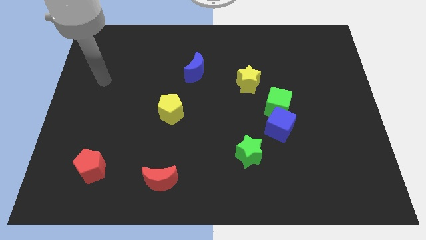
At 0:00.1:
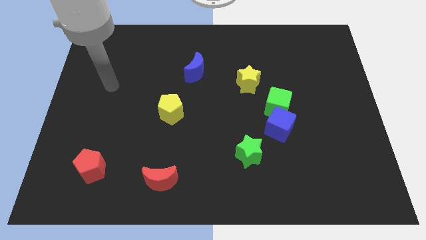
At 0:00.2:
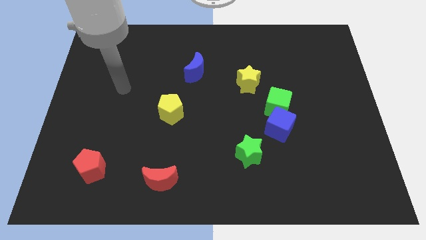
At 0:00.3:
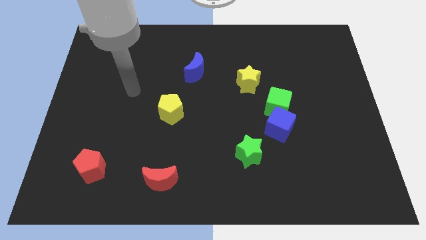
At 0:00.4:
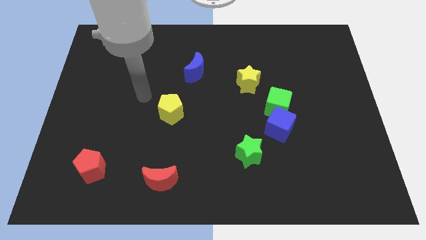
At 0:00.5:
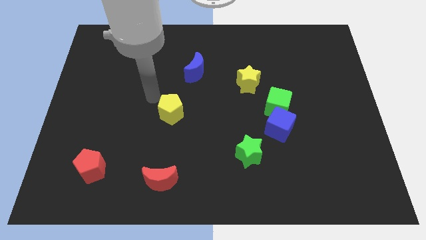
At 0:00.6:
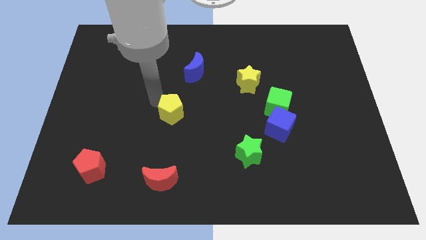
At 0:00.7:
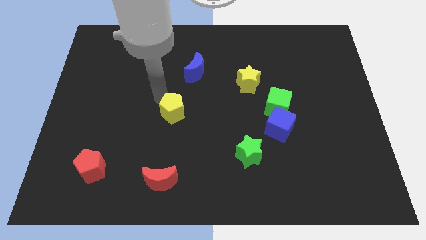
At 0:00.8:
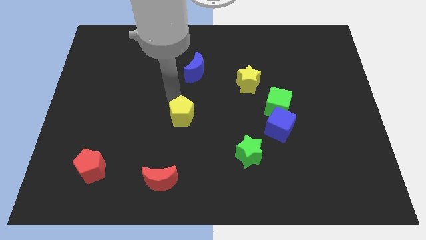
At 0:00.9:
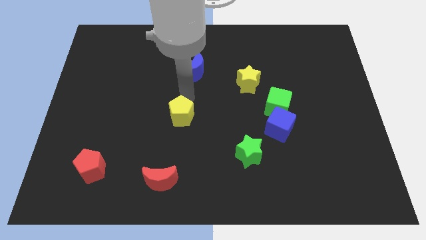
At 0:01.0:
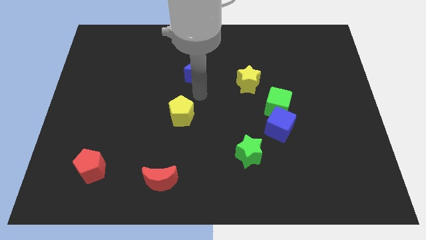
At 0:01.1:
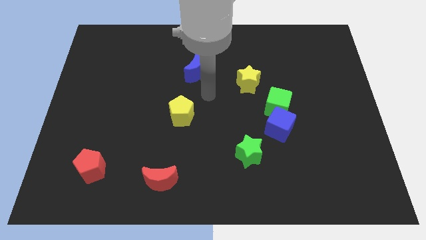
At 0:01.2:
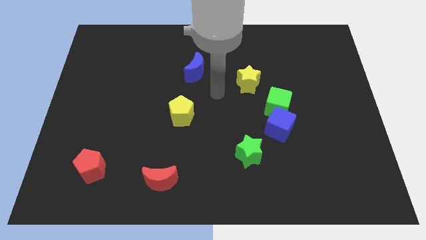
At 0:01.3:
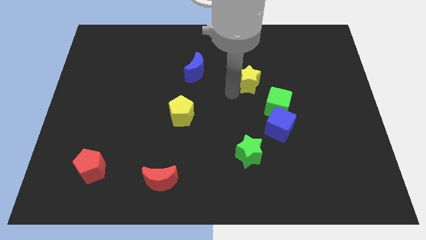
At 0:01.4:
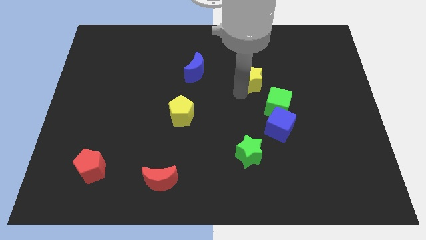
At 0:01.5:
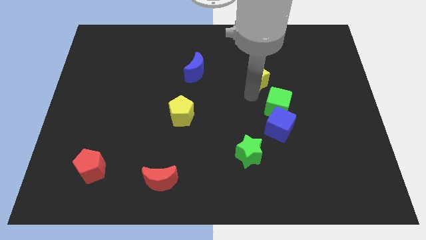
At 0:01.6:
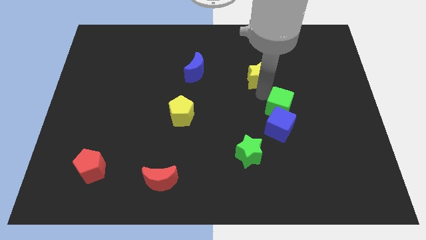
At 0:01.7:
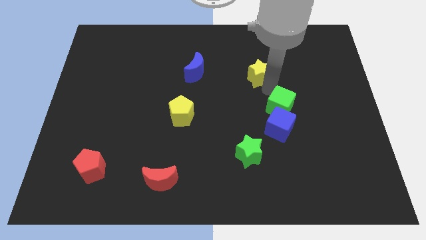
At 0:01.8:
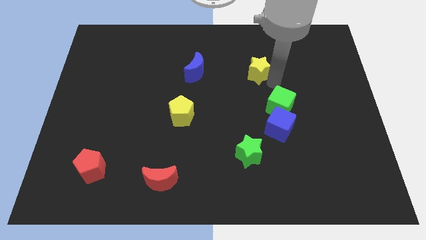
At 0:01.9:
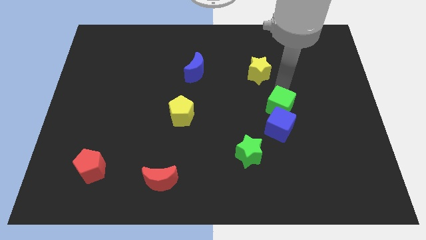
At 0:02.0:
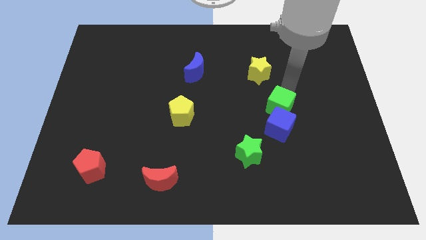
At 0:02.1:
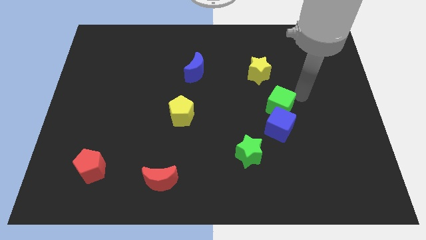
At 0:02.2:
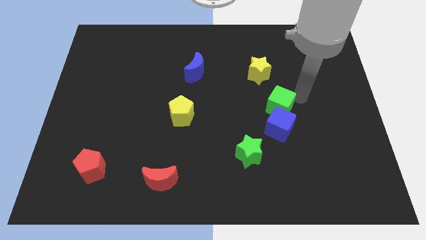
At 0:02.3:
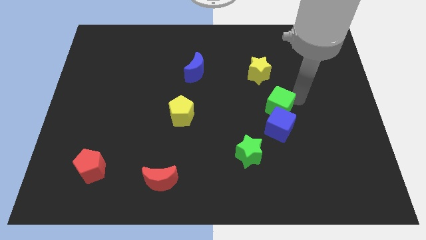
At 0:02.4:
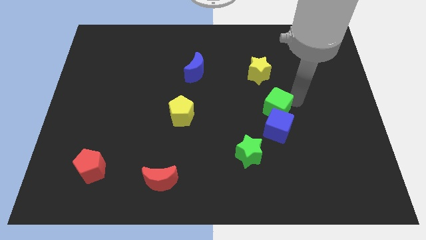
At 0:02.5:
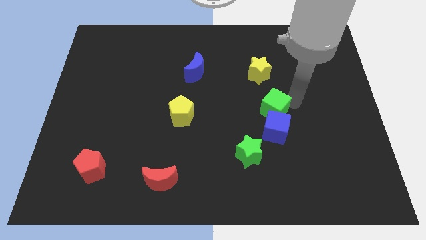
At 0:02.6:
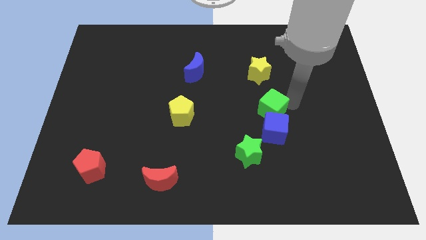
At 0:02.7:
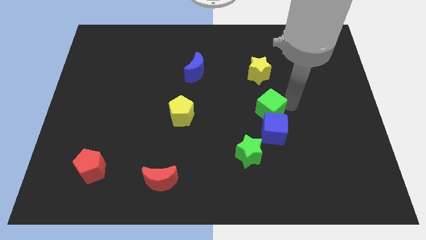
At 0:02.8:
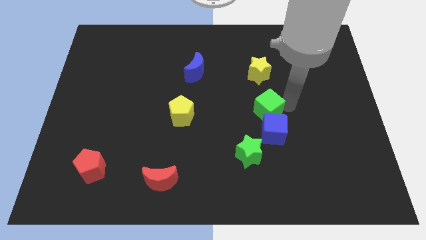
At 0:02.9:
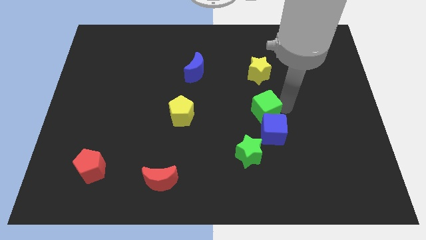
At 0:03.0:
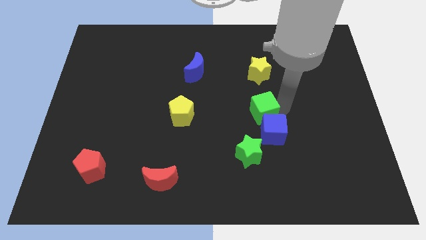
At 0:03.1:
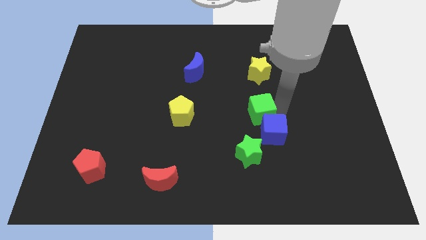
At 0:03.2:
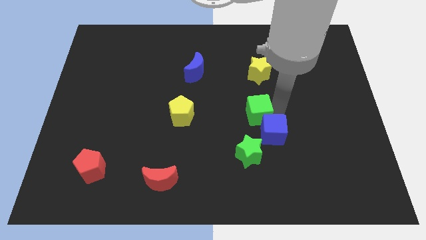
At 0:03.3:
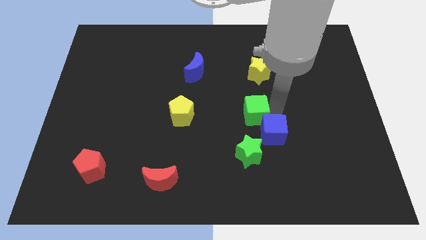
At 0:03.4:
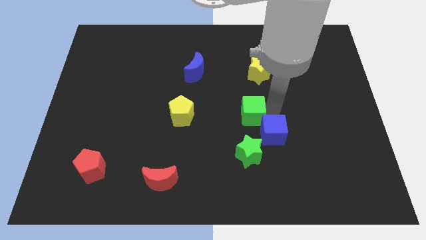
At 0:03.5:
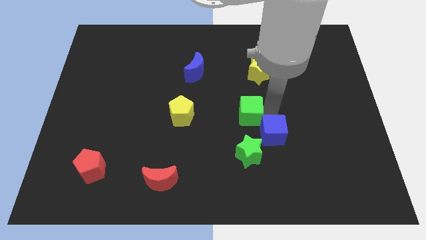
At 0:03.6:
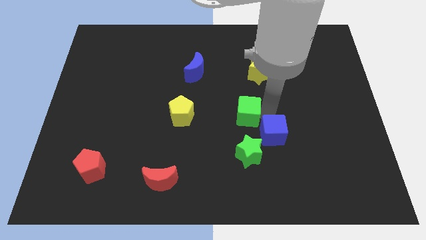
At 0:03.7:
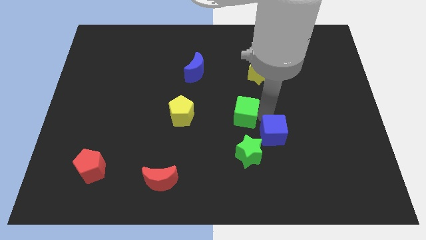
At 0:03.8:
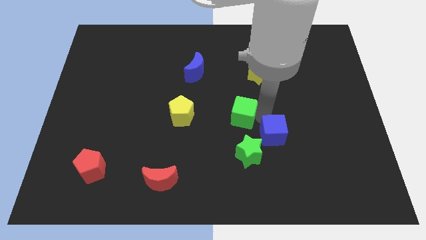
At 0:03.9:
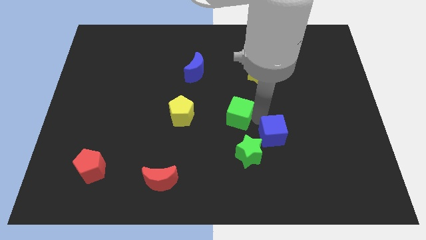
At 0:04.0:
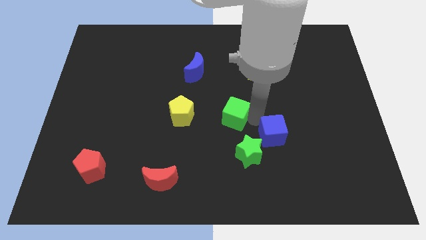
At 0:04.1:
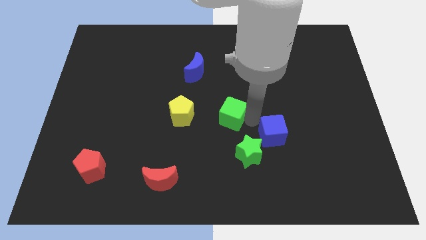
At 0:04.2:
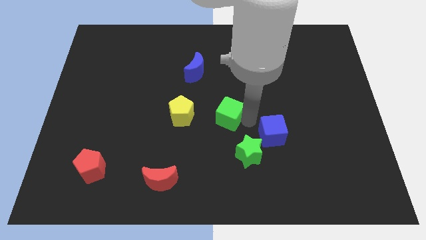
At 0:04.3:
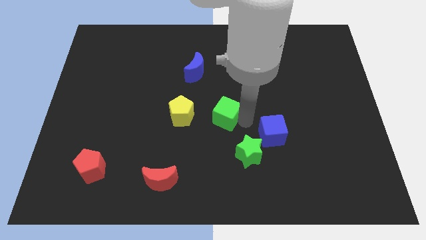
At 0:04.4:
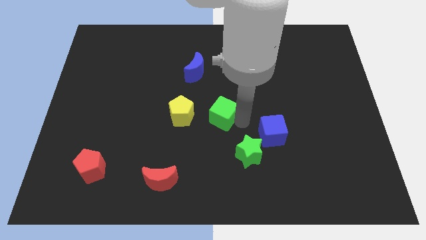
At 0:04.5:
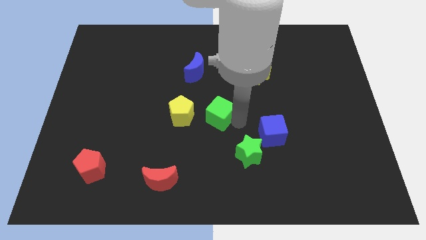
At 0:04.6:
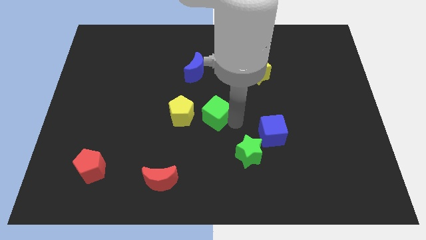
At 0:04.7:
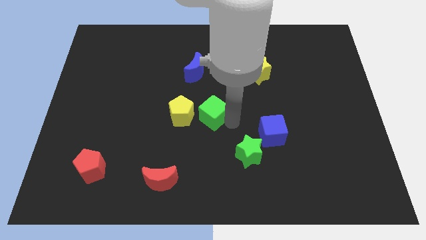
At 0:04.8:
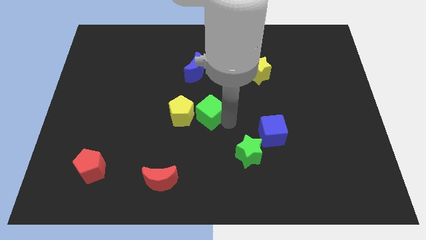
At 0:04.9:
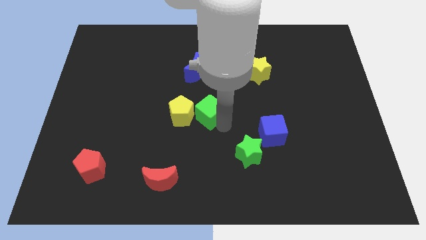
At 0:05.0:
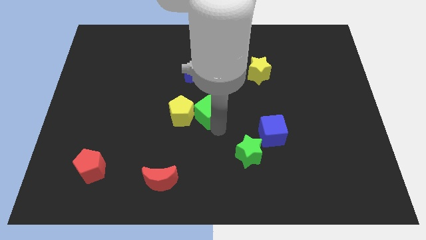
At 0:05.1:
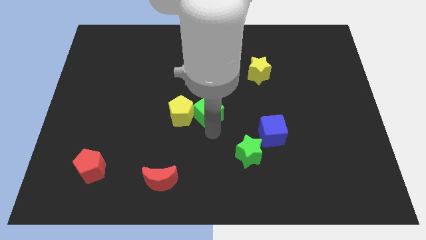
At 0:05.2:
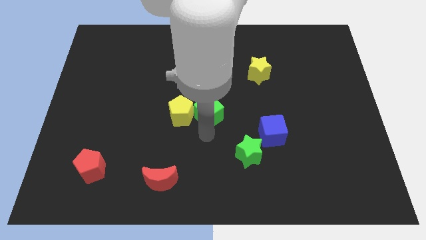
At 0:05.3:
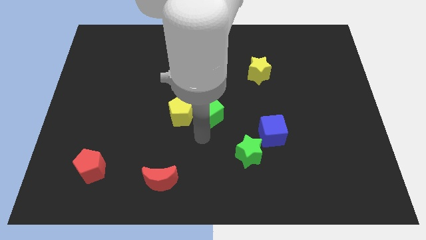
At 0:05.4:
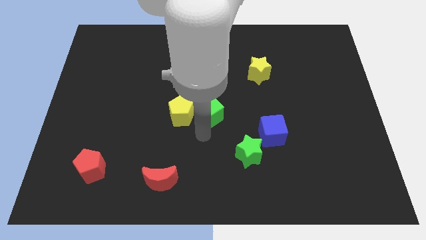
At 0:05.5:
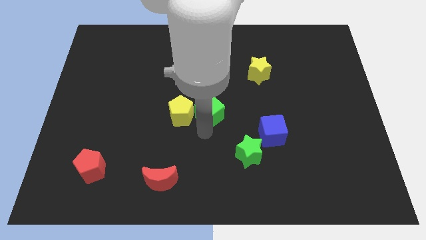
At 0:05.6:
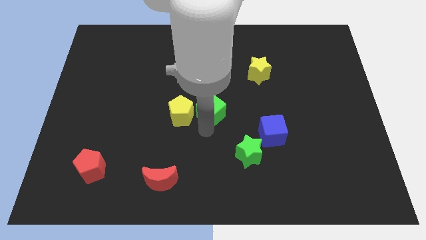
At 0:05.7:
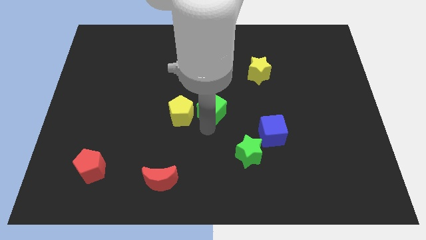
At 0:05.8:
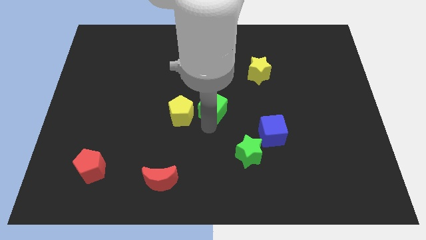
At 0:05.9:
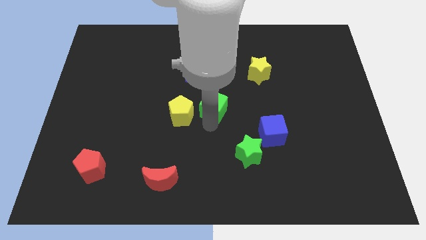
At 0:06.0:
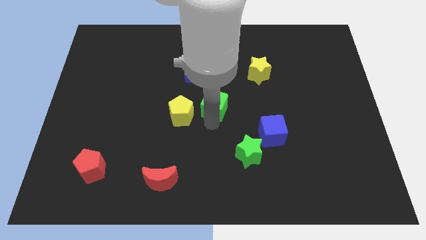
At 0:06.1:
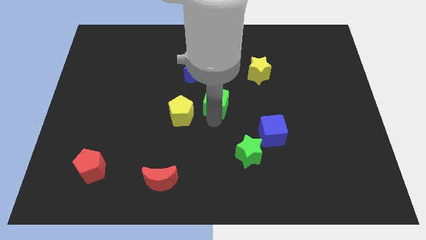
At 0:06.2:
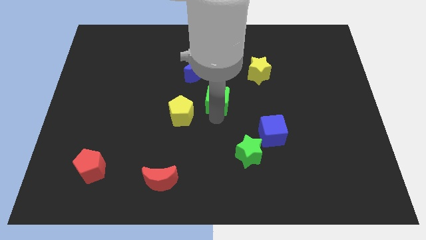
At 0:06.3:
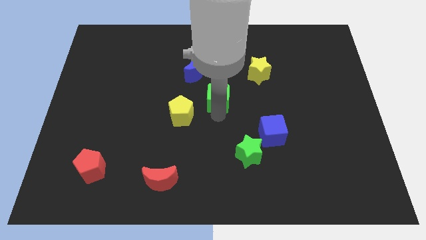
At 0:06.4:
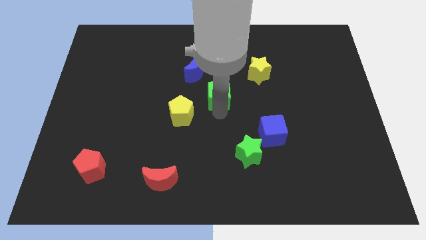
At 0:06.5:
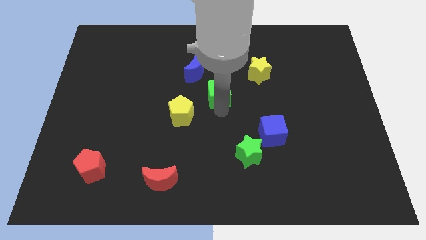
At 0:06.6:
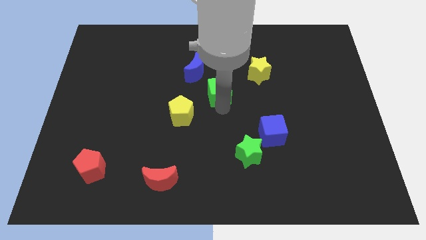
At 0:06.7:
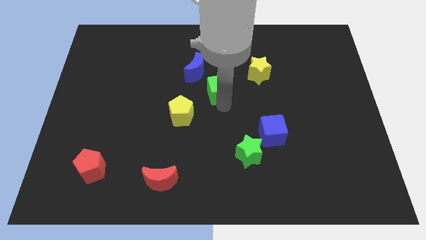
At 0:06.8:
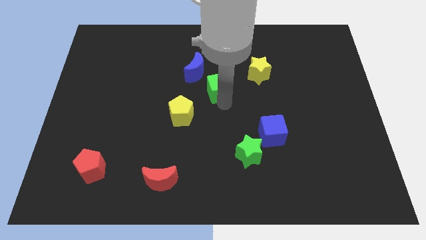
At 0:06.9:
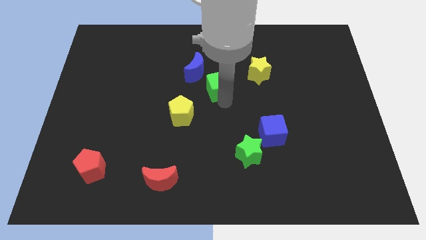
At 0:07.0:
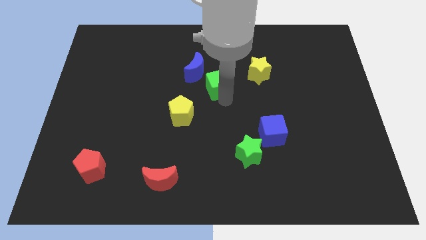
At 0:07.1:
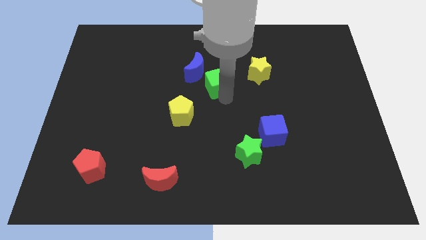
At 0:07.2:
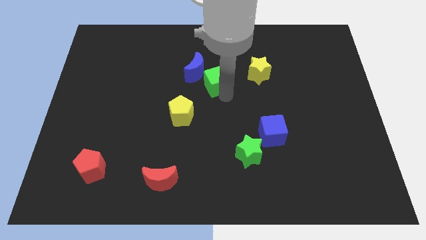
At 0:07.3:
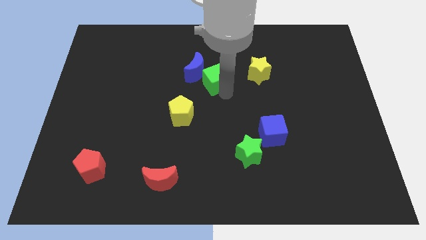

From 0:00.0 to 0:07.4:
put the green cube to the blue moon
